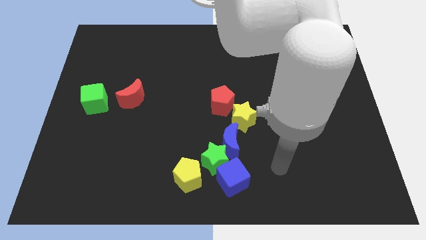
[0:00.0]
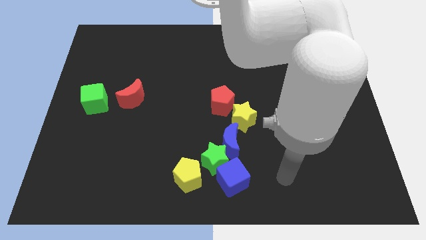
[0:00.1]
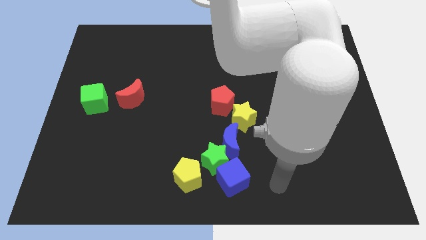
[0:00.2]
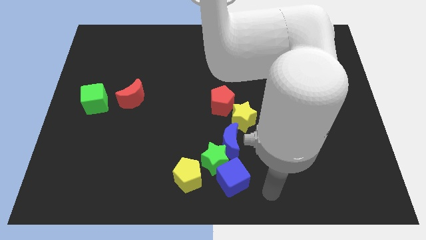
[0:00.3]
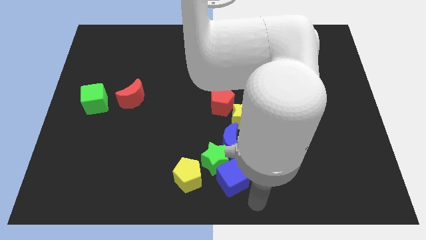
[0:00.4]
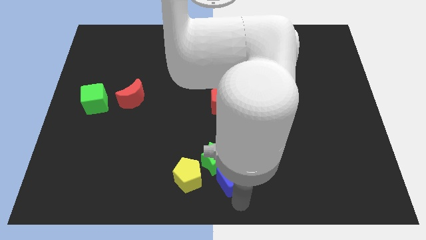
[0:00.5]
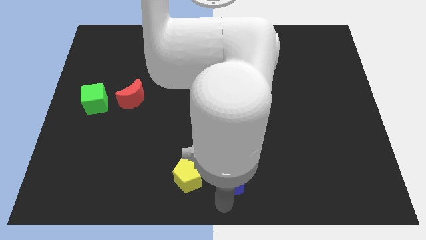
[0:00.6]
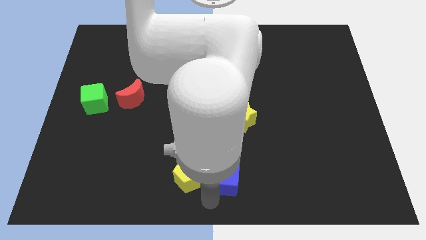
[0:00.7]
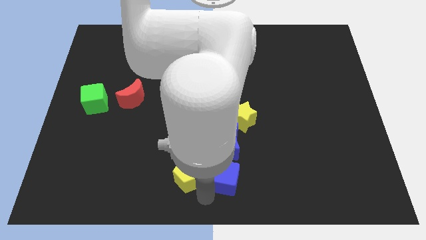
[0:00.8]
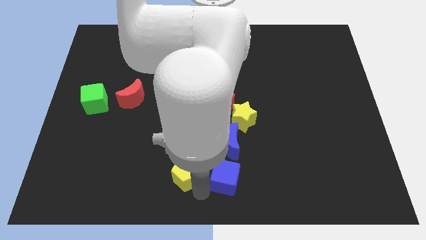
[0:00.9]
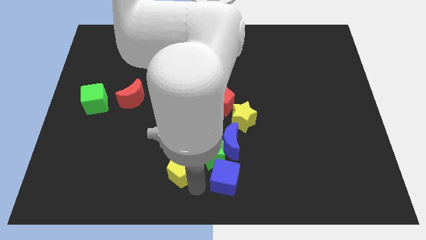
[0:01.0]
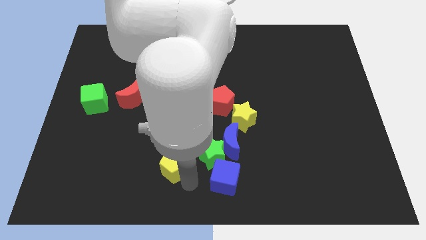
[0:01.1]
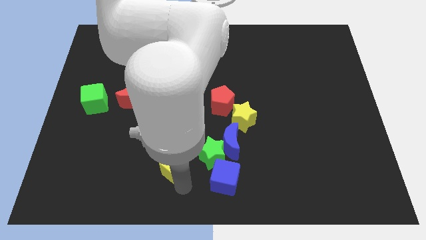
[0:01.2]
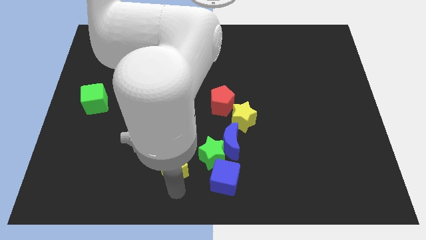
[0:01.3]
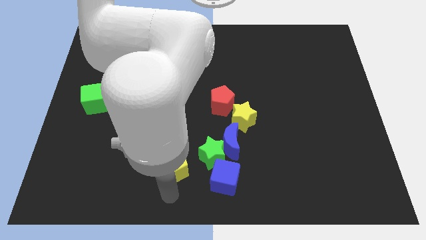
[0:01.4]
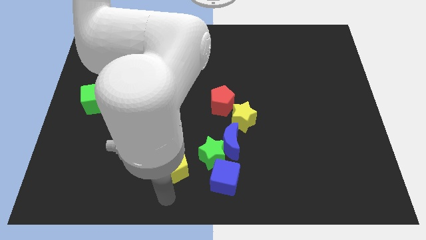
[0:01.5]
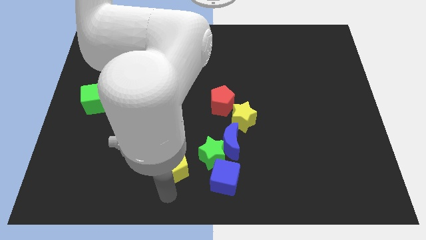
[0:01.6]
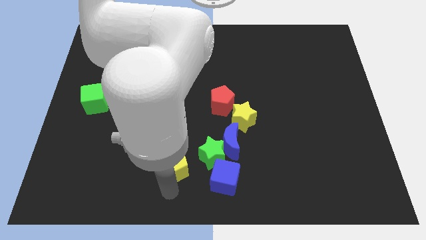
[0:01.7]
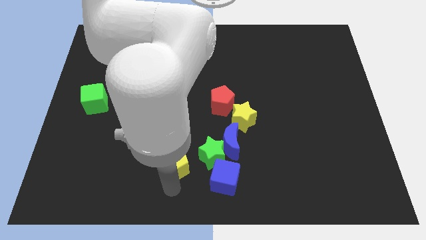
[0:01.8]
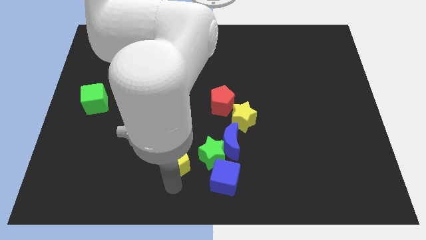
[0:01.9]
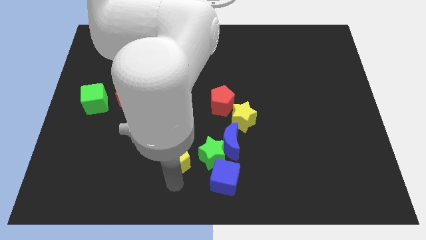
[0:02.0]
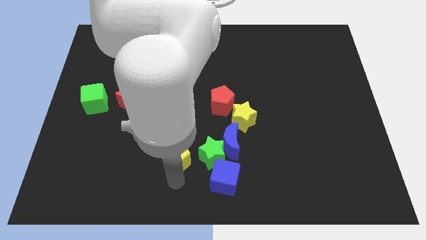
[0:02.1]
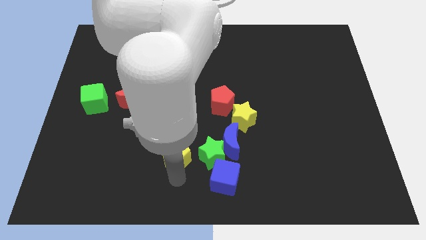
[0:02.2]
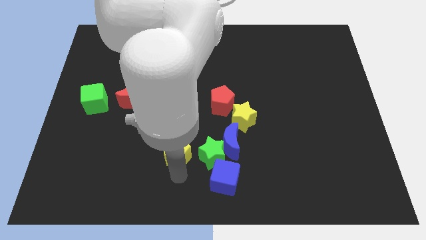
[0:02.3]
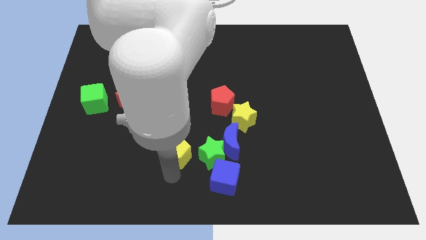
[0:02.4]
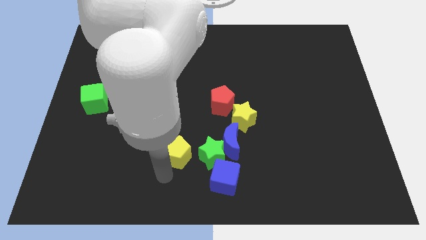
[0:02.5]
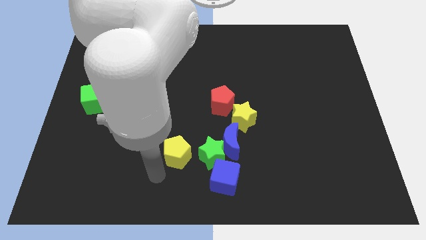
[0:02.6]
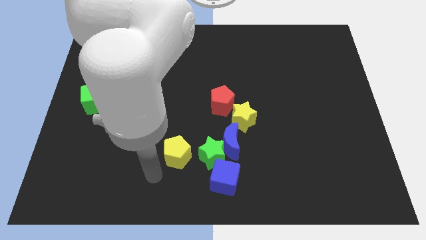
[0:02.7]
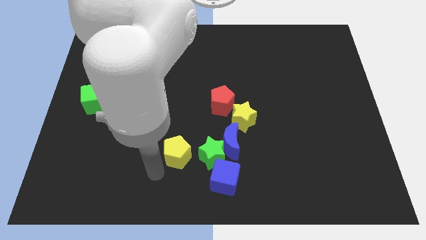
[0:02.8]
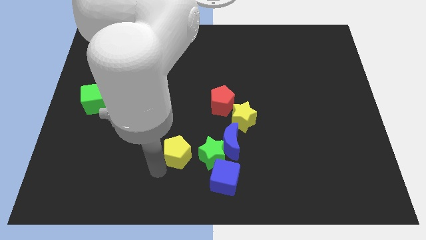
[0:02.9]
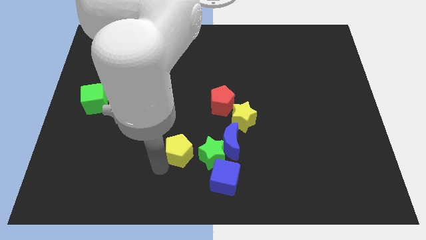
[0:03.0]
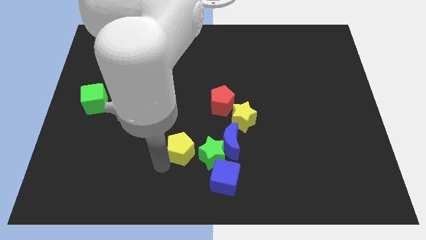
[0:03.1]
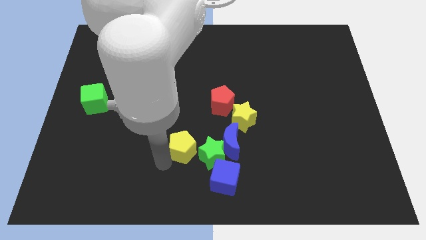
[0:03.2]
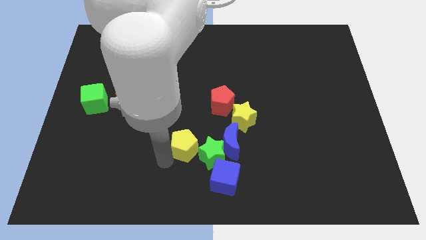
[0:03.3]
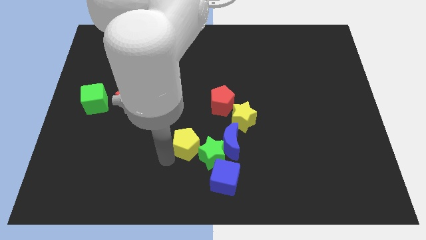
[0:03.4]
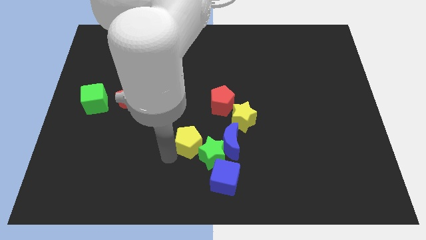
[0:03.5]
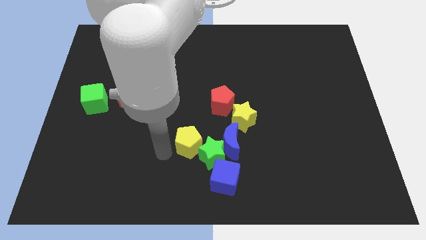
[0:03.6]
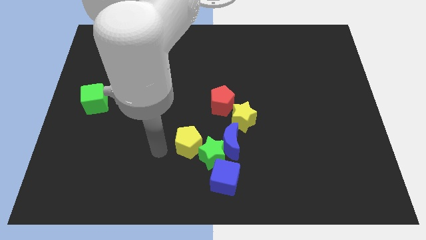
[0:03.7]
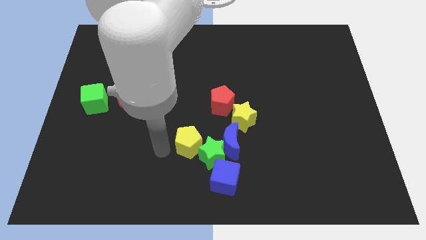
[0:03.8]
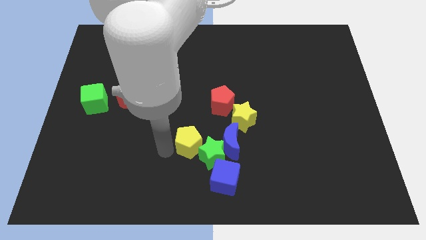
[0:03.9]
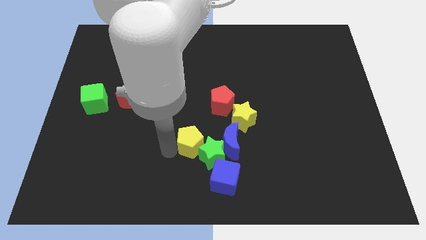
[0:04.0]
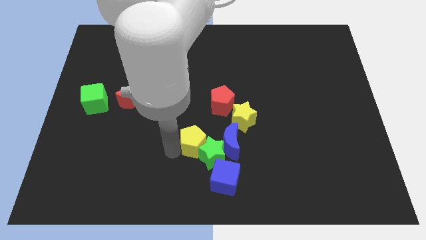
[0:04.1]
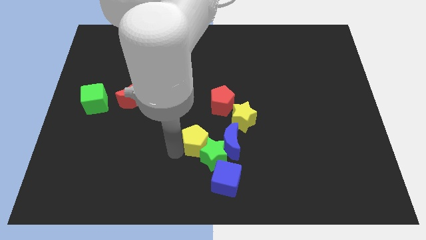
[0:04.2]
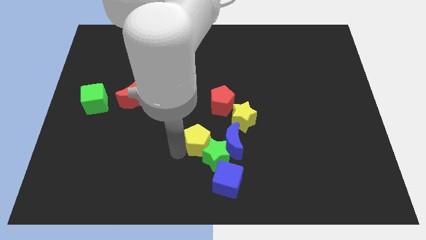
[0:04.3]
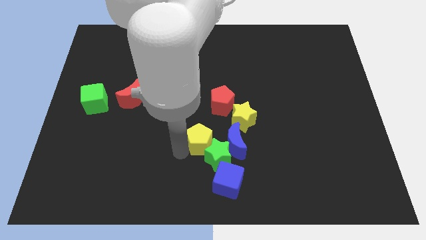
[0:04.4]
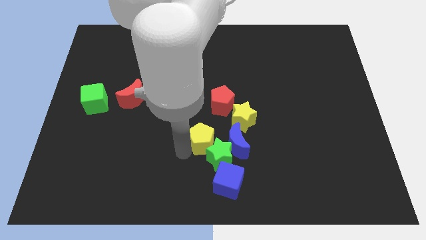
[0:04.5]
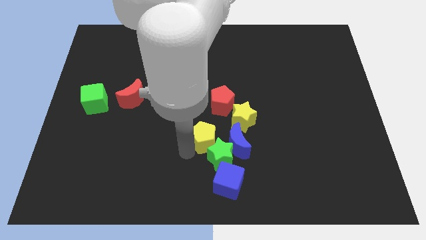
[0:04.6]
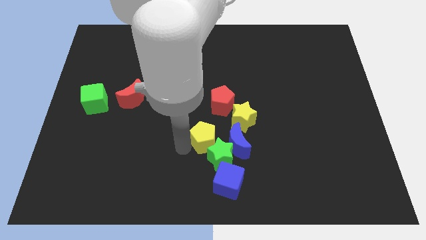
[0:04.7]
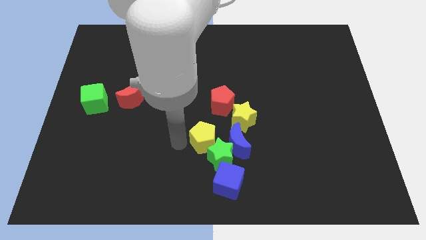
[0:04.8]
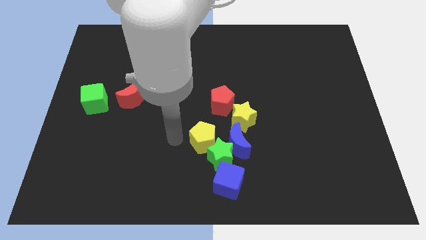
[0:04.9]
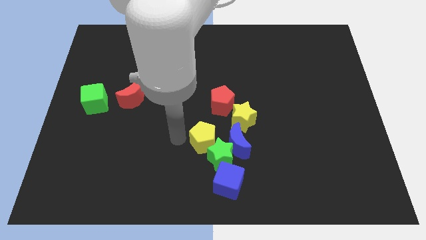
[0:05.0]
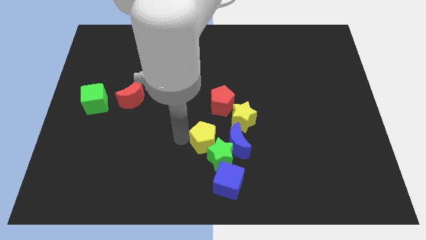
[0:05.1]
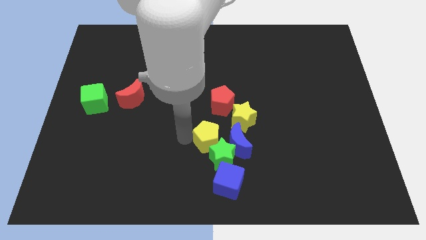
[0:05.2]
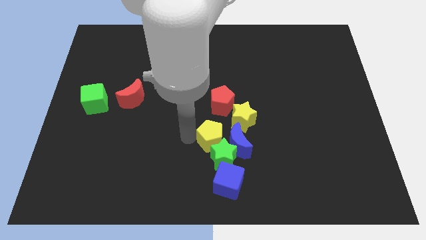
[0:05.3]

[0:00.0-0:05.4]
put the yellow pentagon next to the blue moon

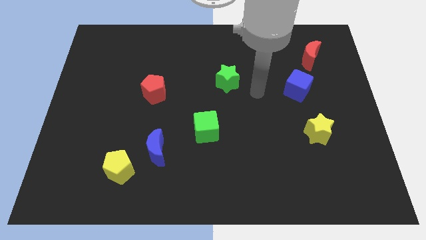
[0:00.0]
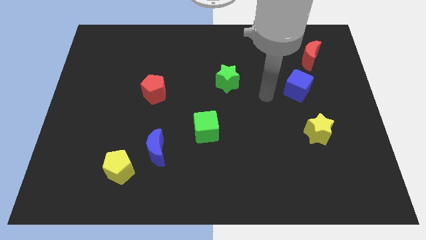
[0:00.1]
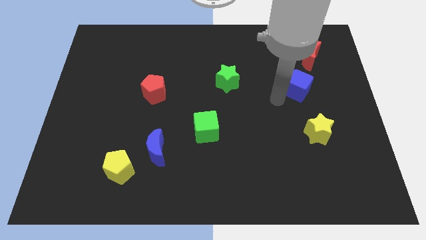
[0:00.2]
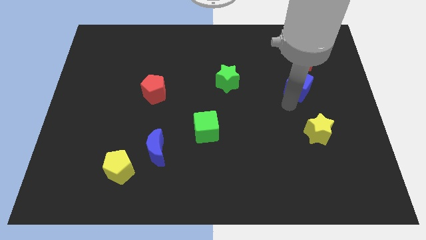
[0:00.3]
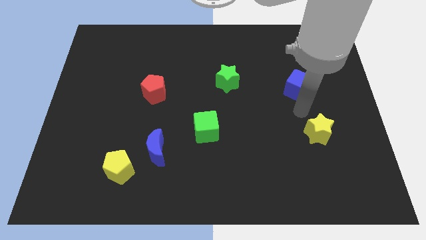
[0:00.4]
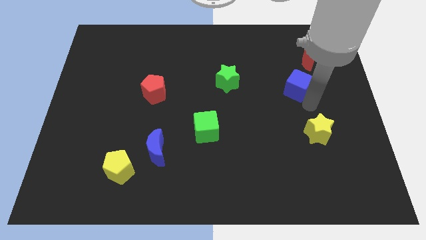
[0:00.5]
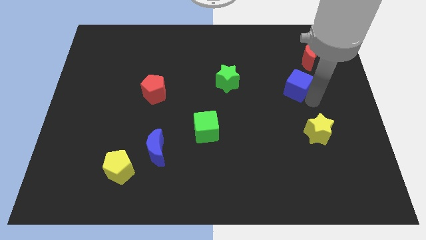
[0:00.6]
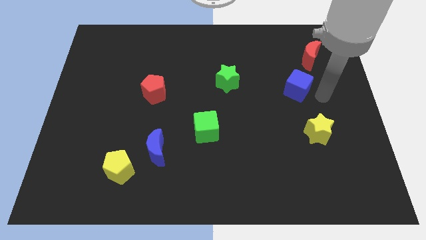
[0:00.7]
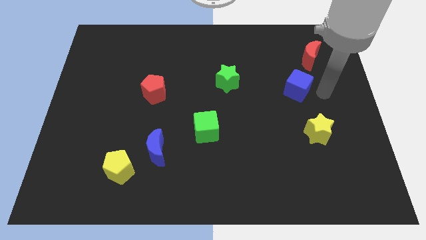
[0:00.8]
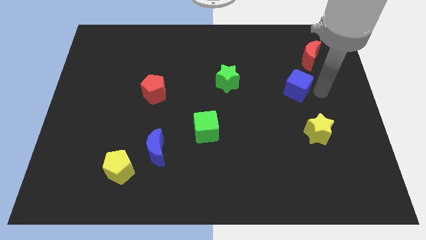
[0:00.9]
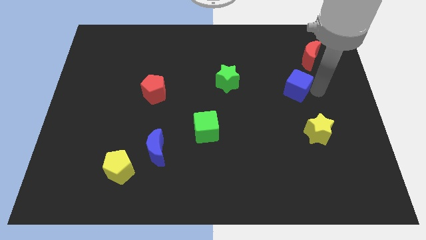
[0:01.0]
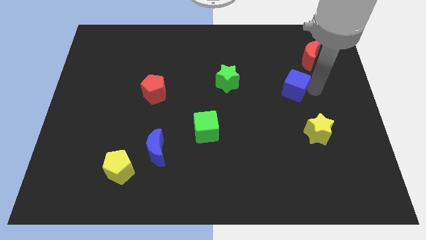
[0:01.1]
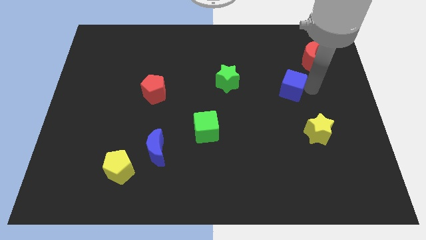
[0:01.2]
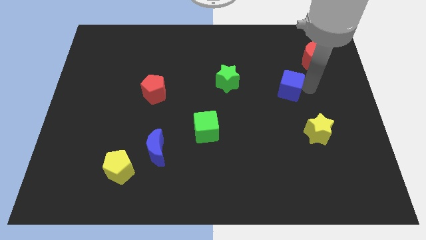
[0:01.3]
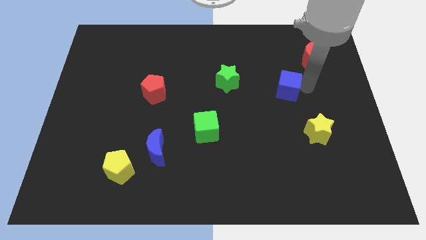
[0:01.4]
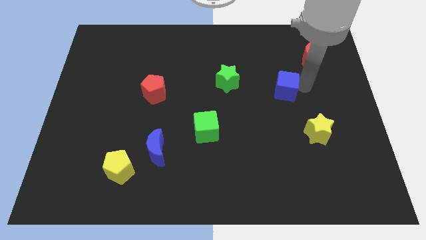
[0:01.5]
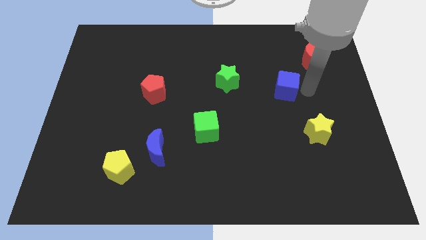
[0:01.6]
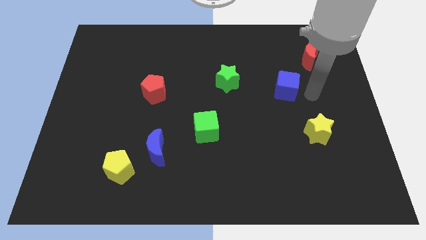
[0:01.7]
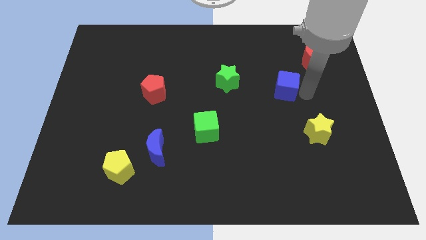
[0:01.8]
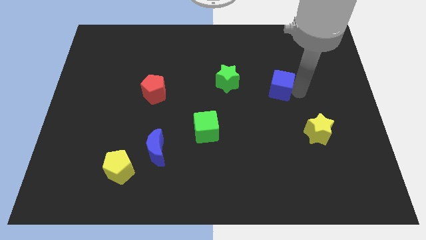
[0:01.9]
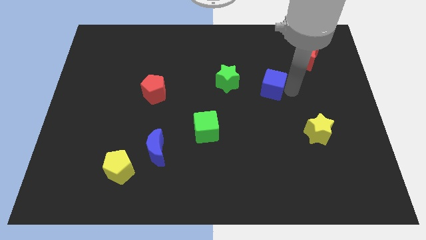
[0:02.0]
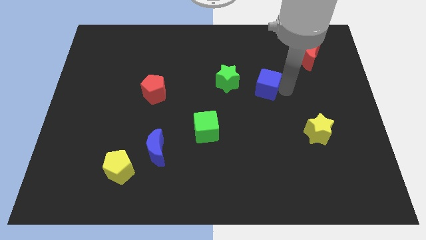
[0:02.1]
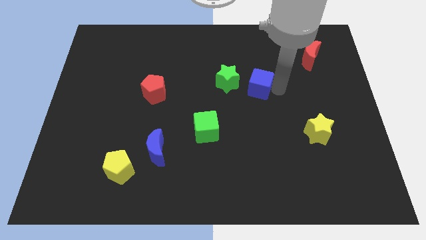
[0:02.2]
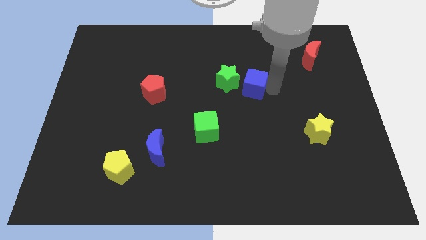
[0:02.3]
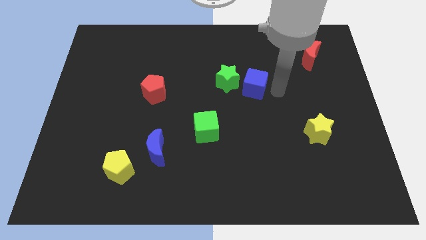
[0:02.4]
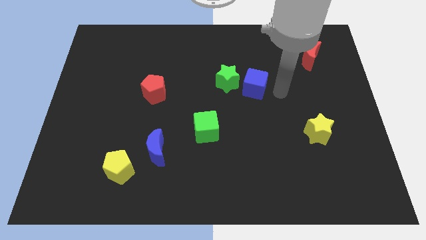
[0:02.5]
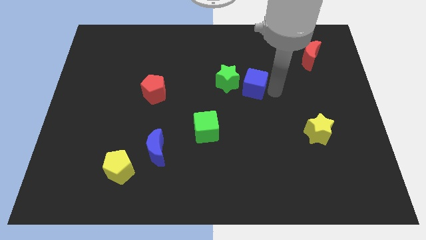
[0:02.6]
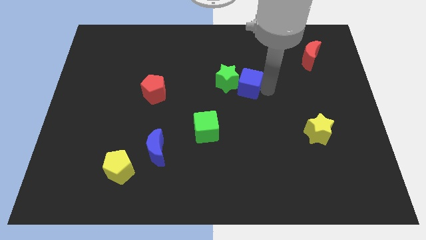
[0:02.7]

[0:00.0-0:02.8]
move the blue cube towards the green star
